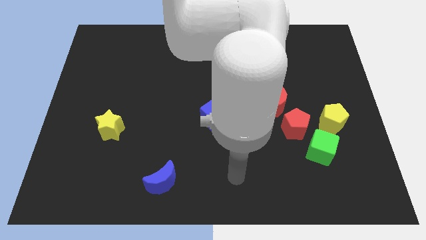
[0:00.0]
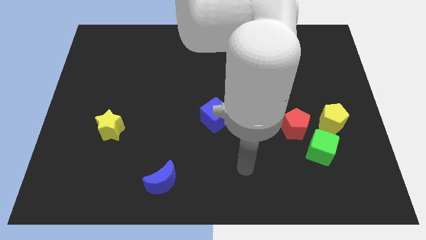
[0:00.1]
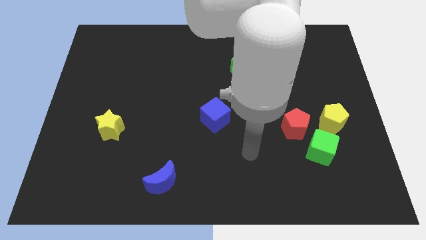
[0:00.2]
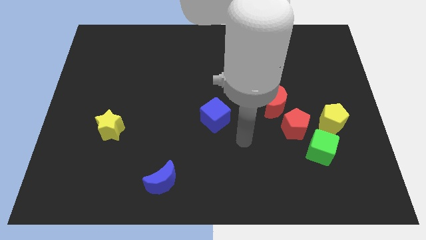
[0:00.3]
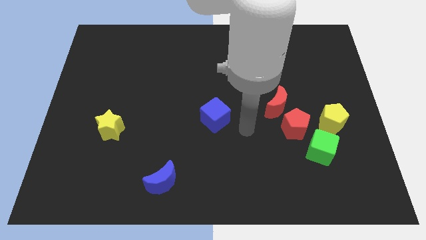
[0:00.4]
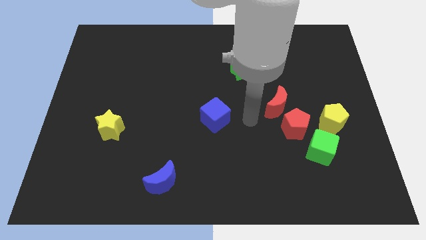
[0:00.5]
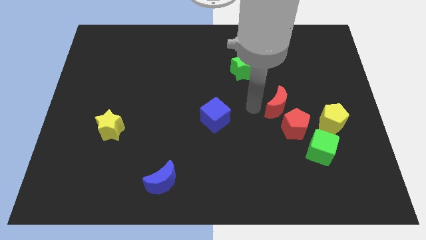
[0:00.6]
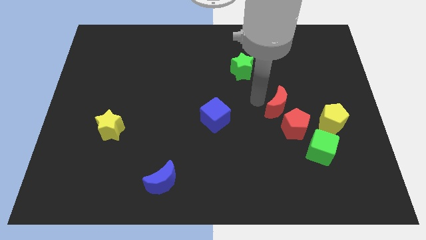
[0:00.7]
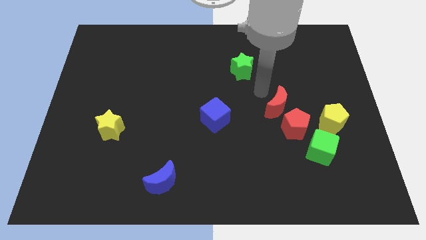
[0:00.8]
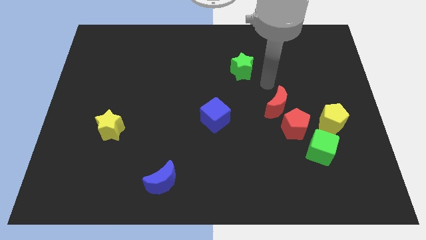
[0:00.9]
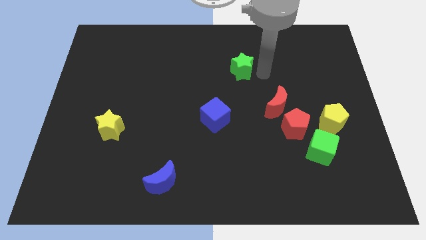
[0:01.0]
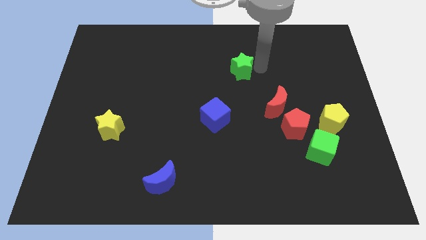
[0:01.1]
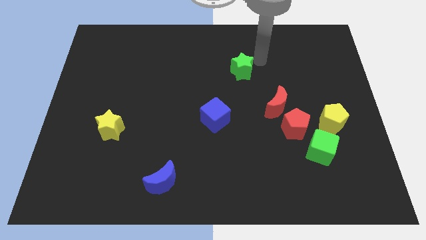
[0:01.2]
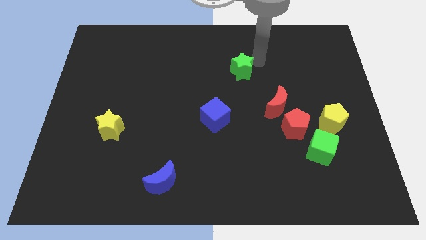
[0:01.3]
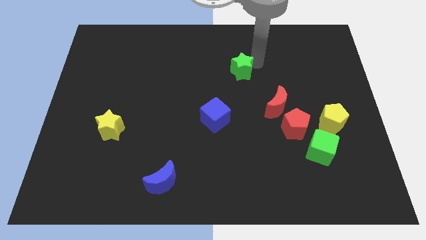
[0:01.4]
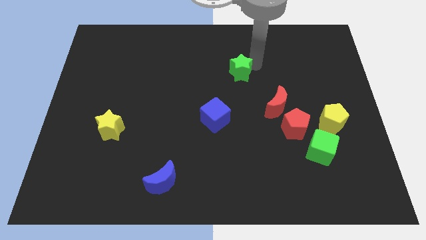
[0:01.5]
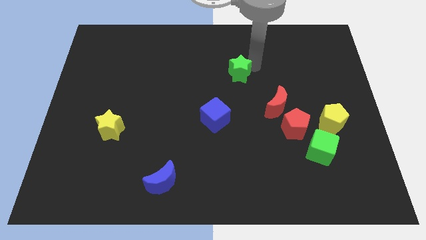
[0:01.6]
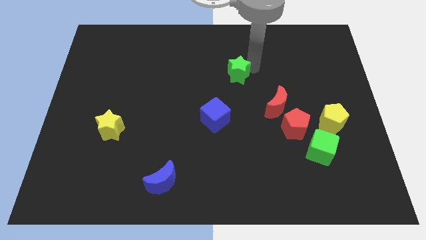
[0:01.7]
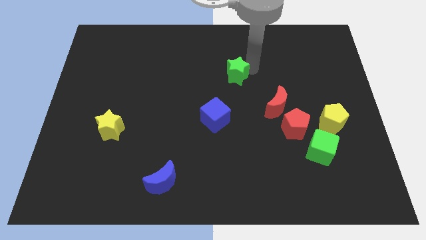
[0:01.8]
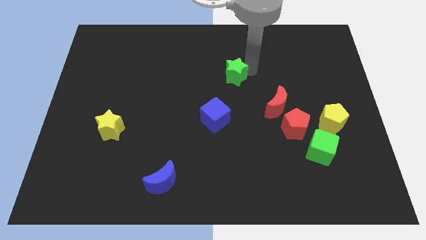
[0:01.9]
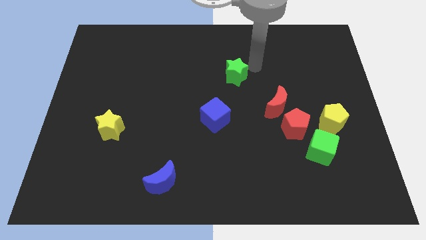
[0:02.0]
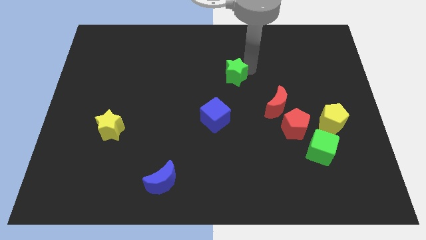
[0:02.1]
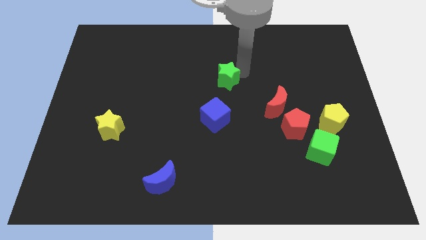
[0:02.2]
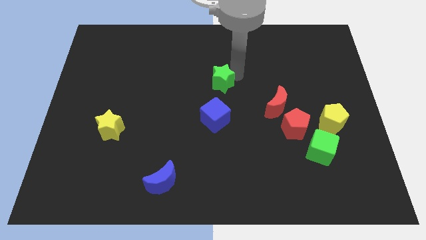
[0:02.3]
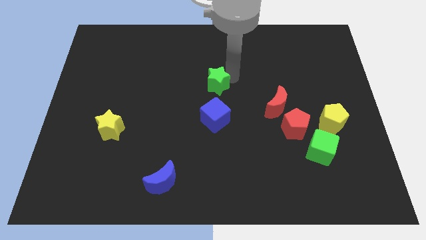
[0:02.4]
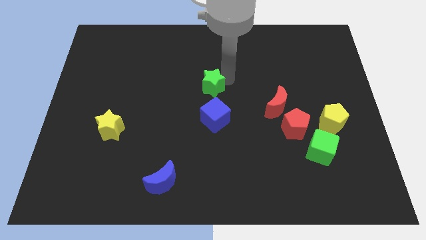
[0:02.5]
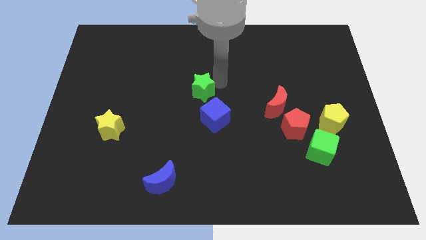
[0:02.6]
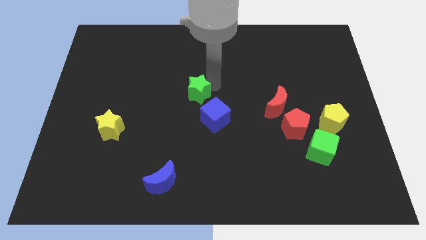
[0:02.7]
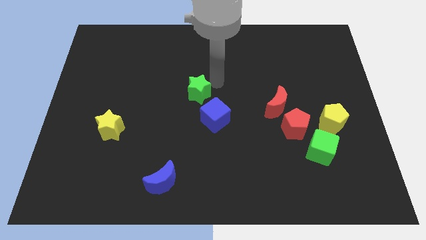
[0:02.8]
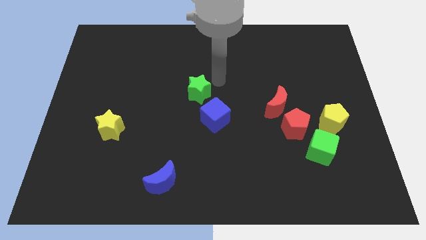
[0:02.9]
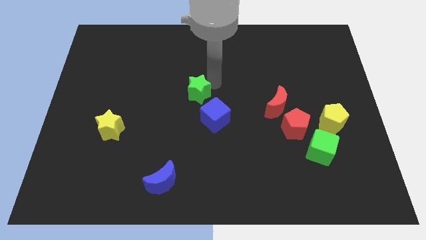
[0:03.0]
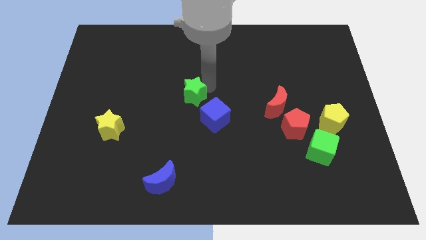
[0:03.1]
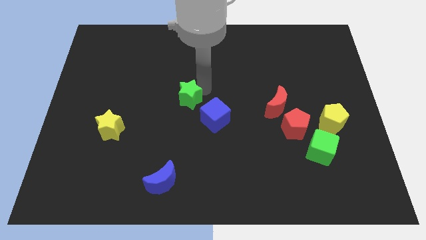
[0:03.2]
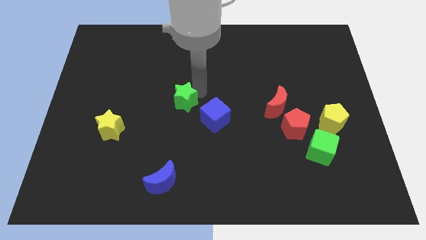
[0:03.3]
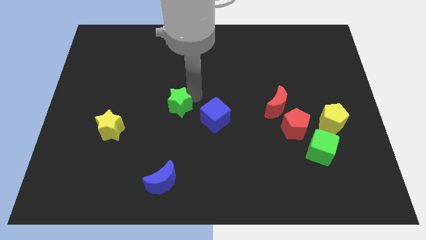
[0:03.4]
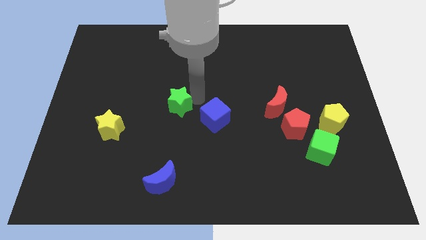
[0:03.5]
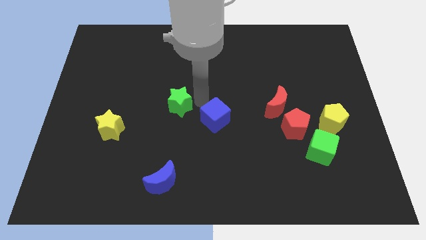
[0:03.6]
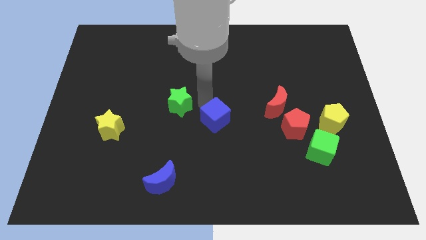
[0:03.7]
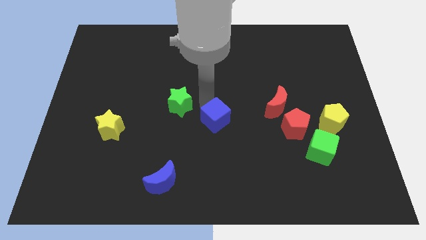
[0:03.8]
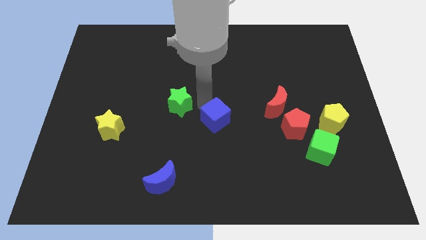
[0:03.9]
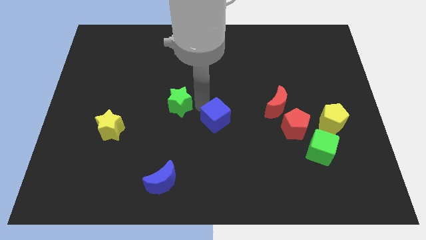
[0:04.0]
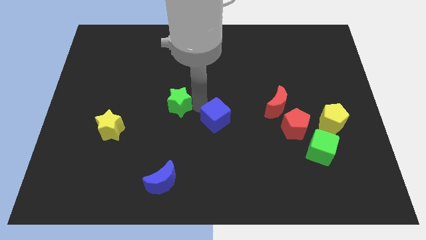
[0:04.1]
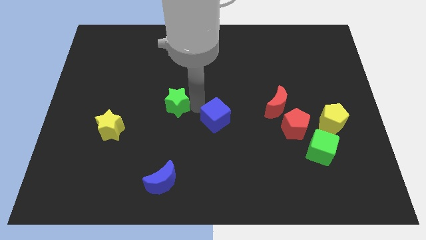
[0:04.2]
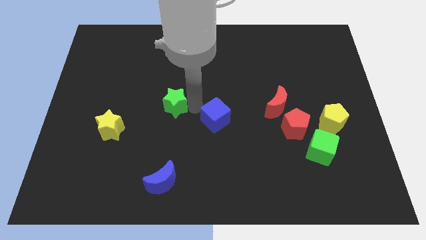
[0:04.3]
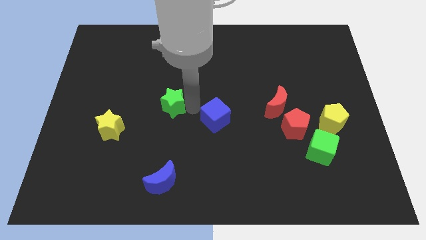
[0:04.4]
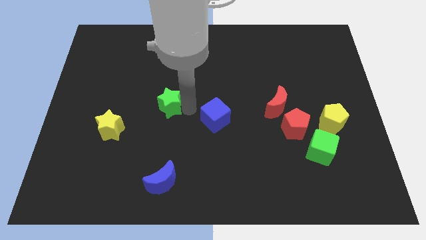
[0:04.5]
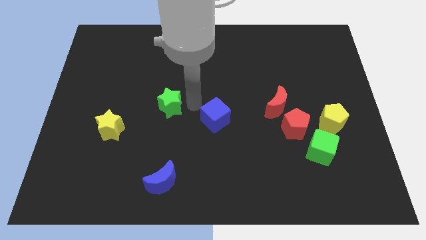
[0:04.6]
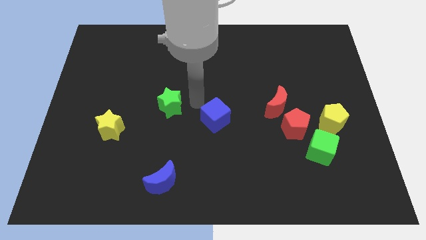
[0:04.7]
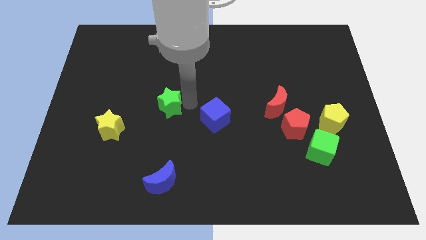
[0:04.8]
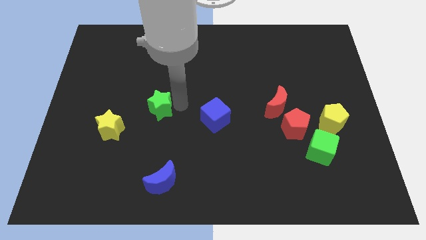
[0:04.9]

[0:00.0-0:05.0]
push the green star to the top right side of the yellow star

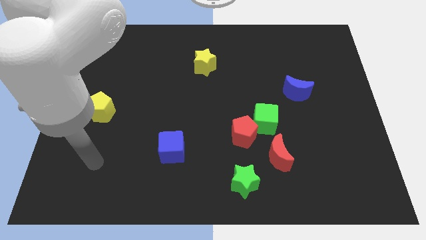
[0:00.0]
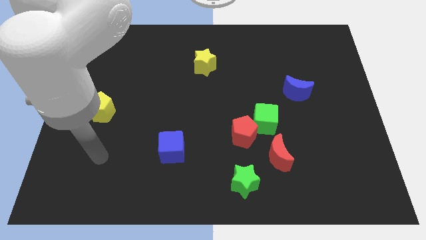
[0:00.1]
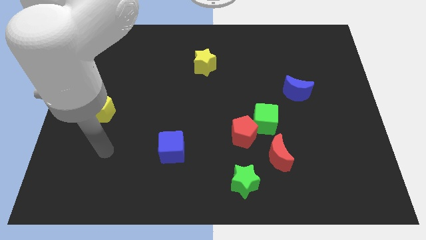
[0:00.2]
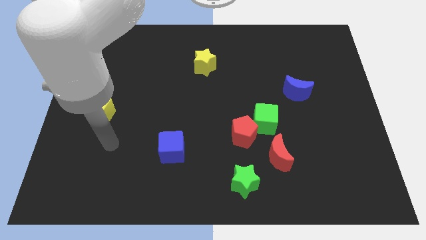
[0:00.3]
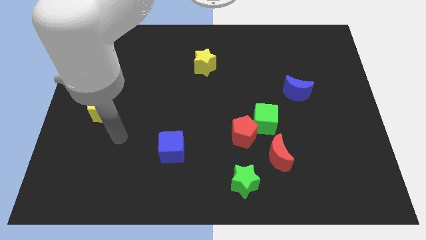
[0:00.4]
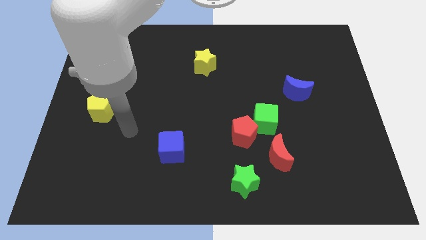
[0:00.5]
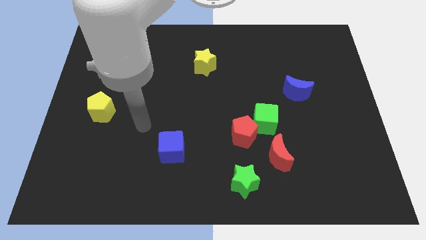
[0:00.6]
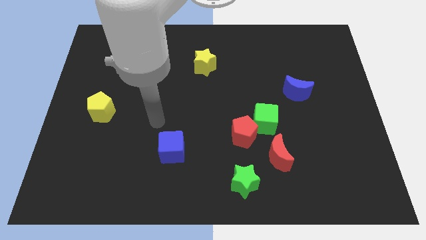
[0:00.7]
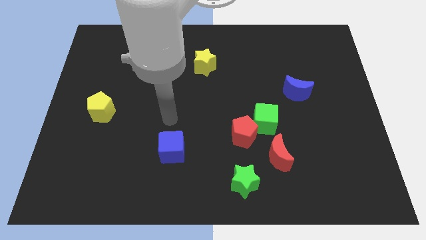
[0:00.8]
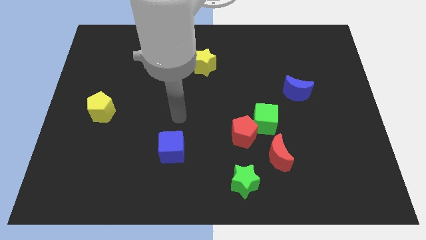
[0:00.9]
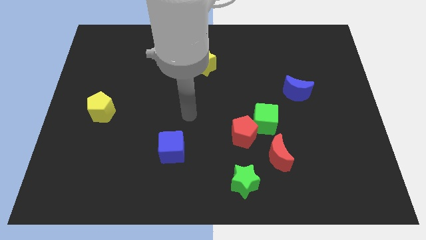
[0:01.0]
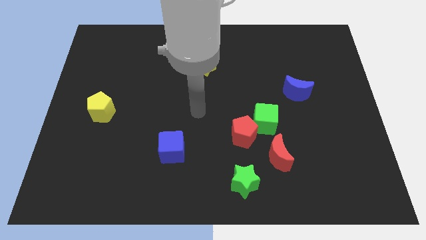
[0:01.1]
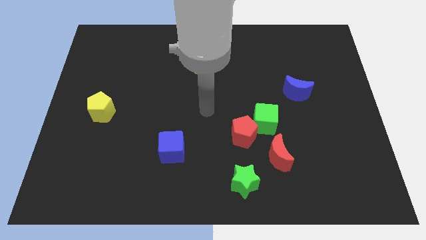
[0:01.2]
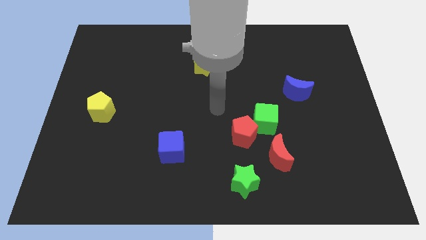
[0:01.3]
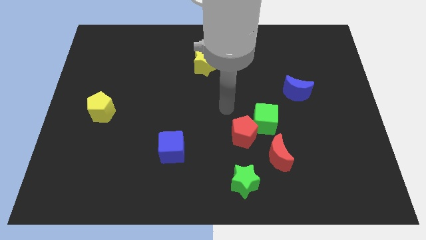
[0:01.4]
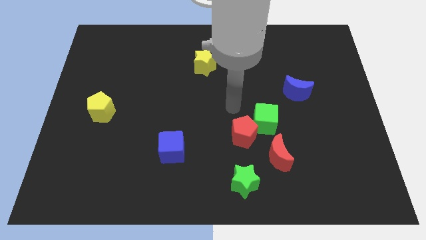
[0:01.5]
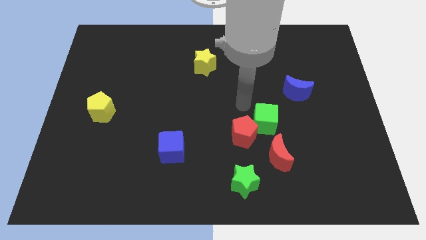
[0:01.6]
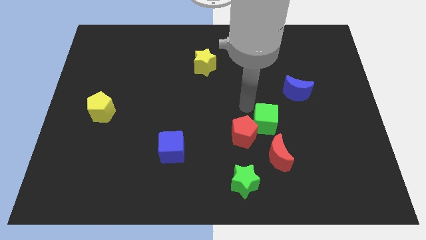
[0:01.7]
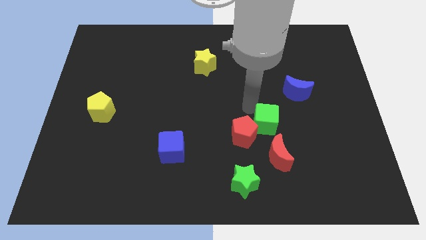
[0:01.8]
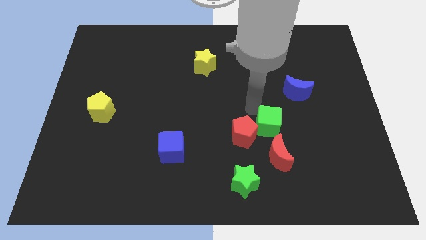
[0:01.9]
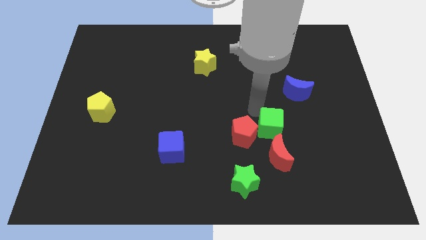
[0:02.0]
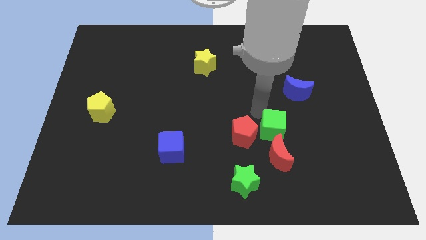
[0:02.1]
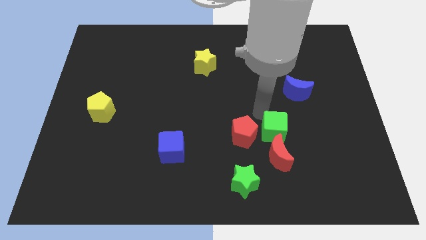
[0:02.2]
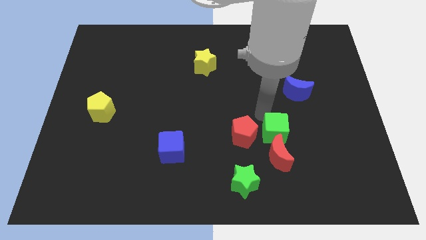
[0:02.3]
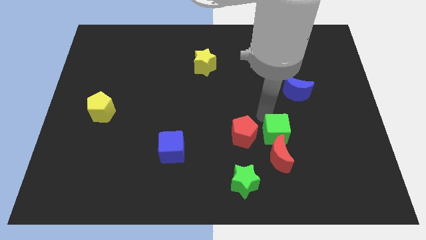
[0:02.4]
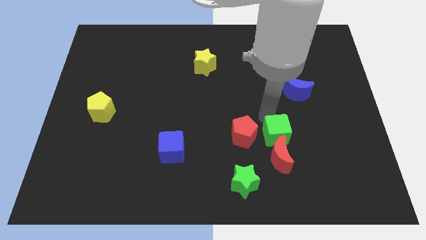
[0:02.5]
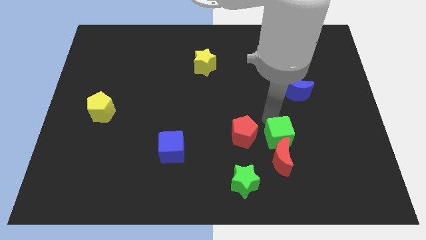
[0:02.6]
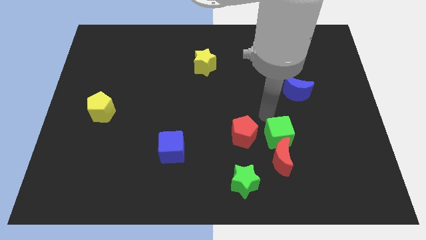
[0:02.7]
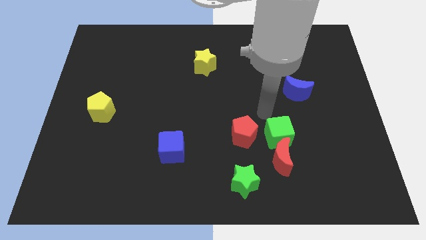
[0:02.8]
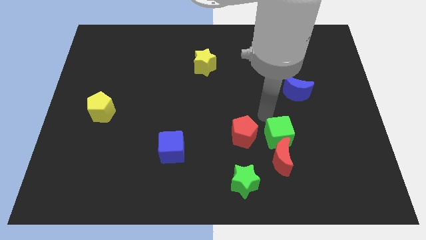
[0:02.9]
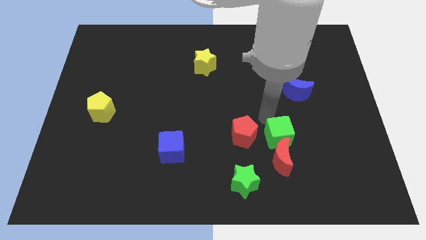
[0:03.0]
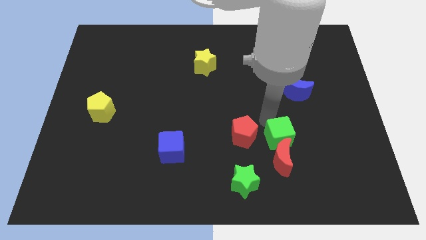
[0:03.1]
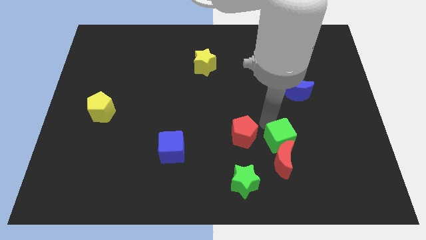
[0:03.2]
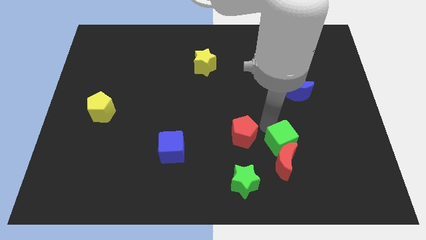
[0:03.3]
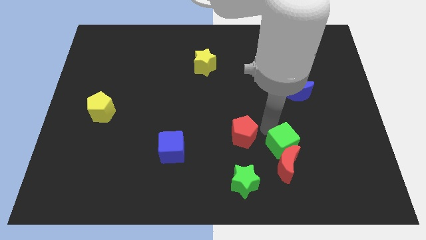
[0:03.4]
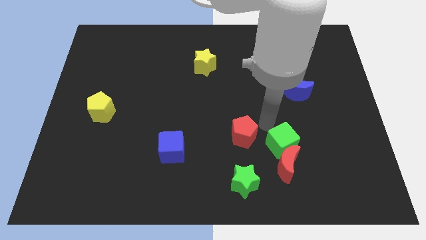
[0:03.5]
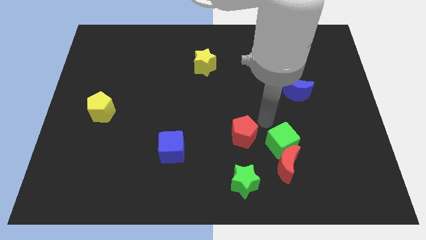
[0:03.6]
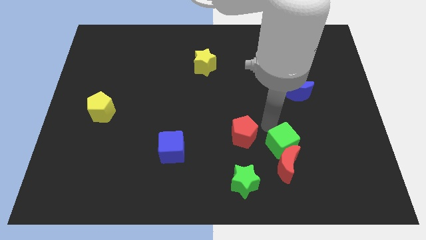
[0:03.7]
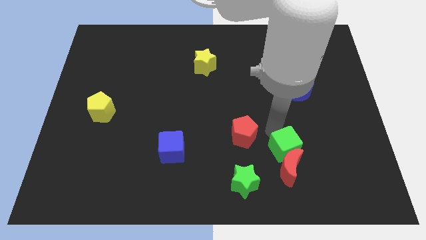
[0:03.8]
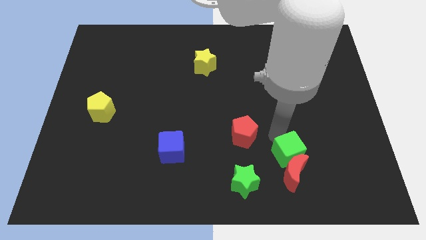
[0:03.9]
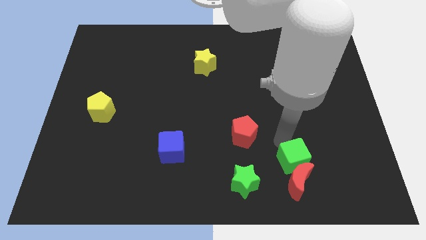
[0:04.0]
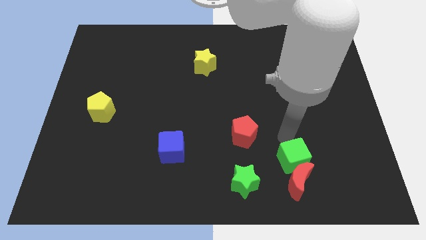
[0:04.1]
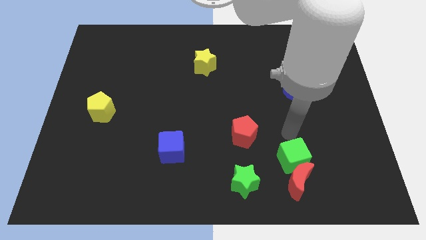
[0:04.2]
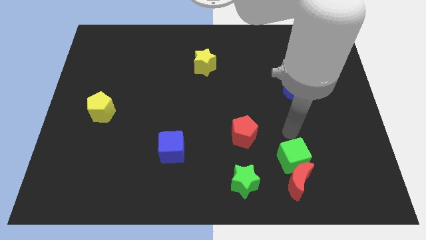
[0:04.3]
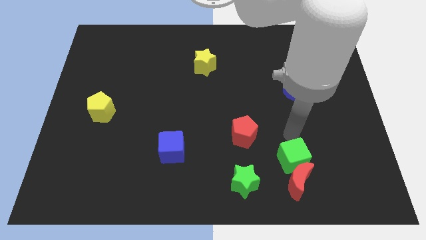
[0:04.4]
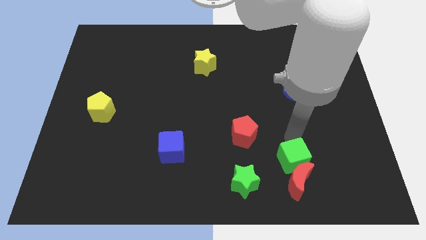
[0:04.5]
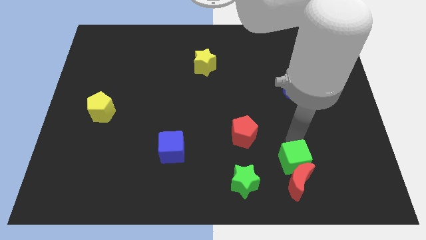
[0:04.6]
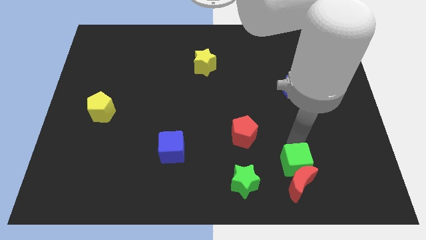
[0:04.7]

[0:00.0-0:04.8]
push the green cube just right of the green star
